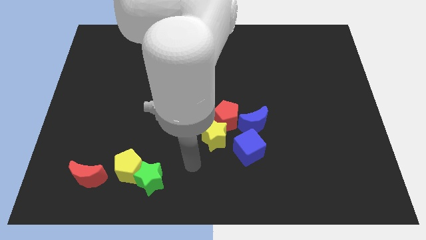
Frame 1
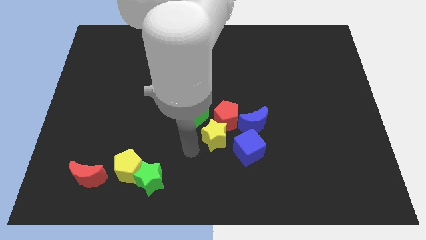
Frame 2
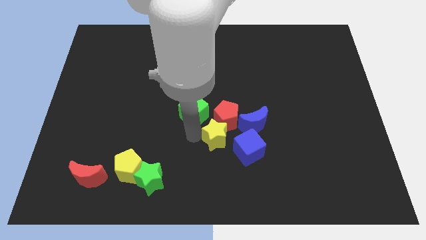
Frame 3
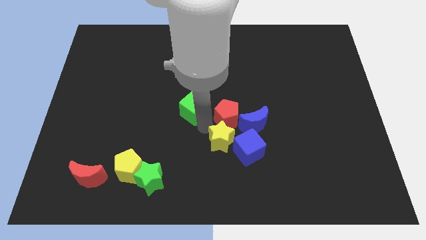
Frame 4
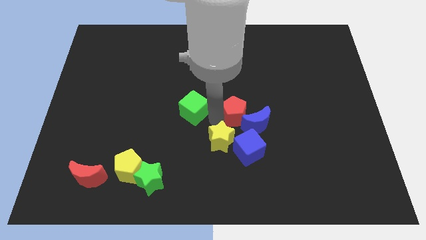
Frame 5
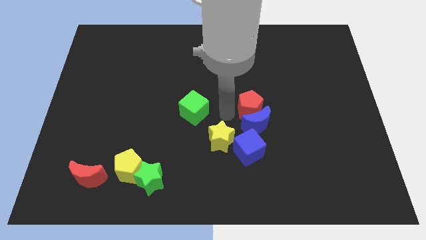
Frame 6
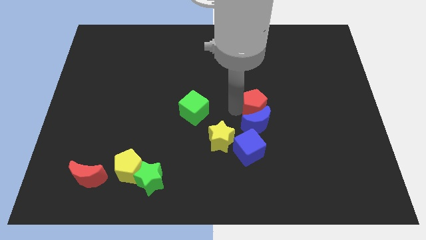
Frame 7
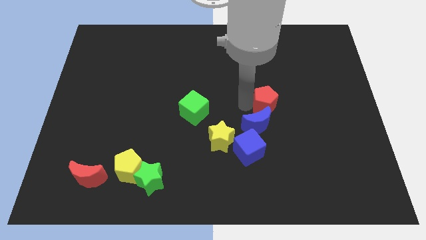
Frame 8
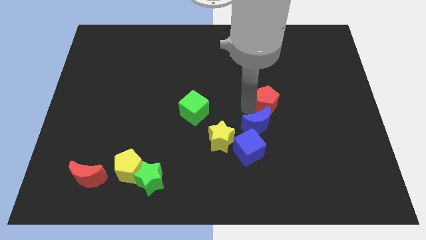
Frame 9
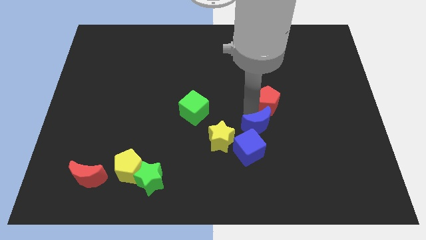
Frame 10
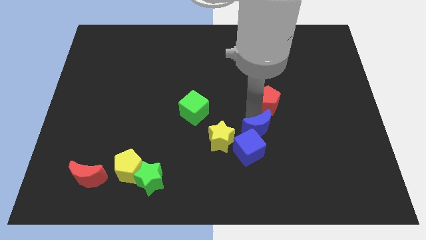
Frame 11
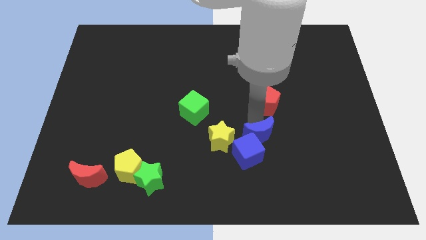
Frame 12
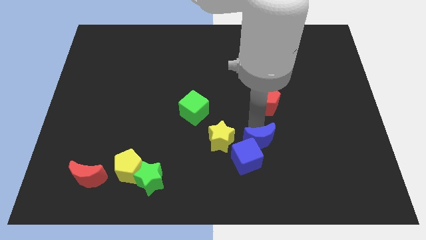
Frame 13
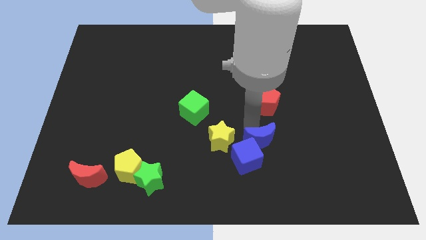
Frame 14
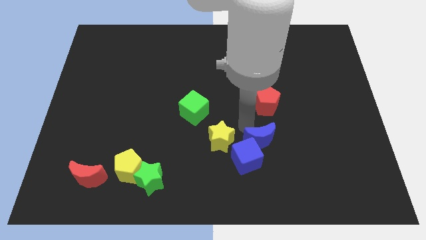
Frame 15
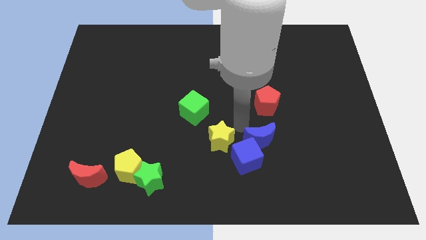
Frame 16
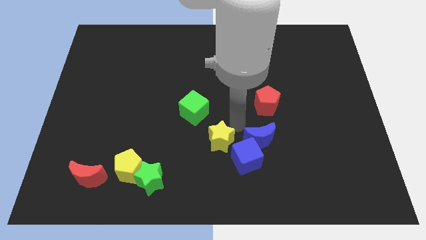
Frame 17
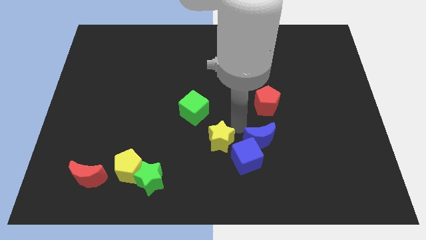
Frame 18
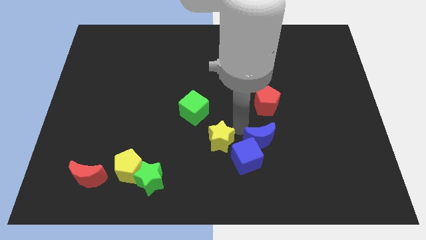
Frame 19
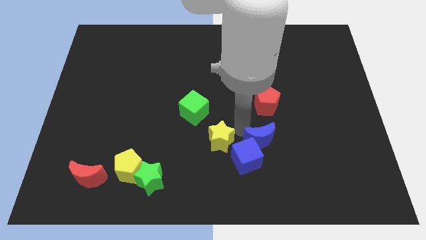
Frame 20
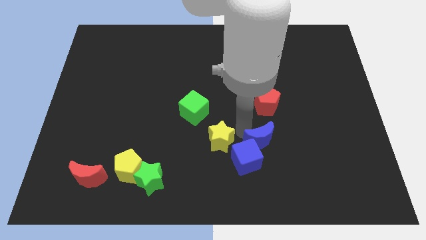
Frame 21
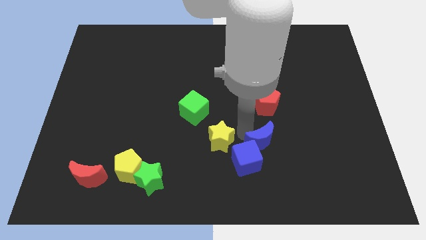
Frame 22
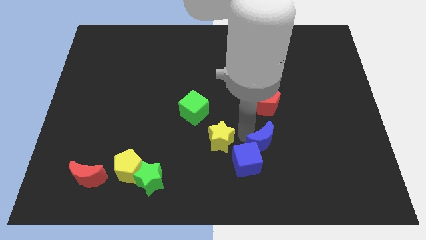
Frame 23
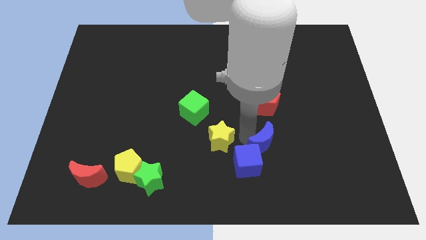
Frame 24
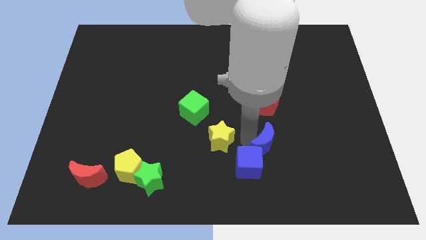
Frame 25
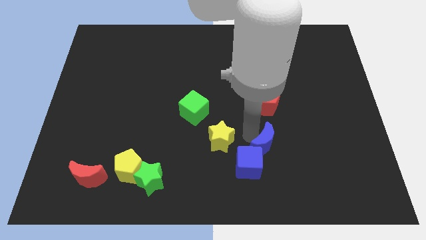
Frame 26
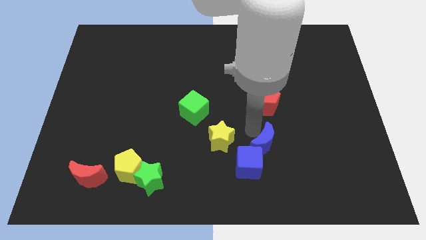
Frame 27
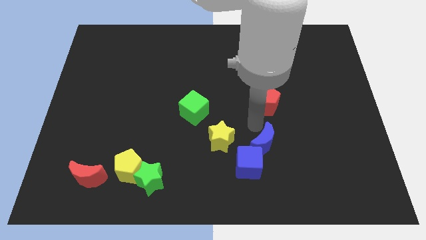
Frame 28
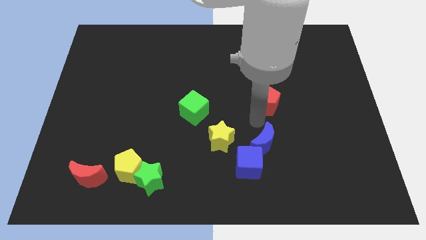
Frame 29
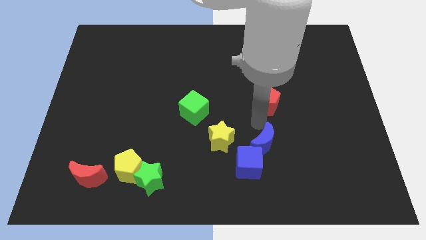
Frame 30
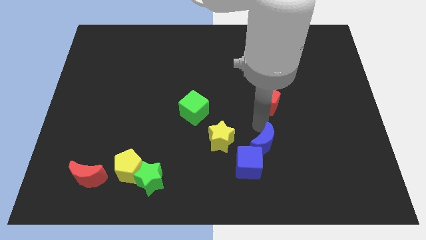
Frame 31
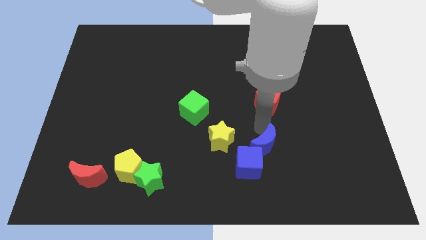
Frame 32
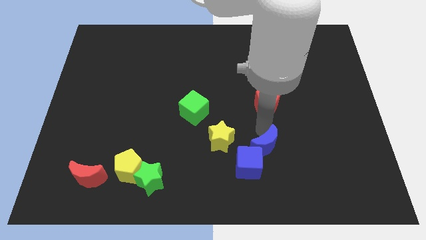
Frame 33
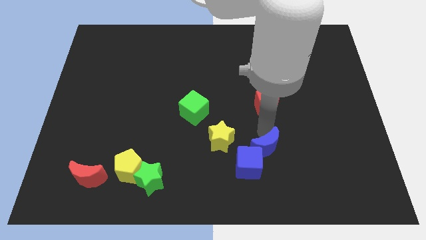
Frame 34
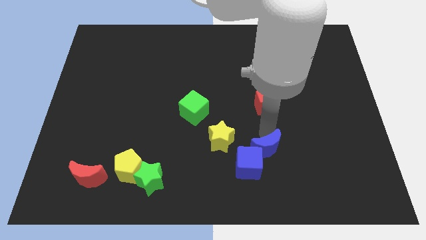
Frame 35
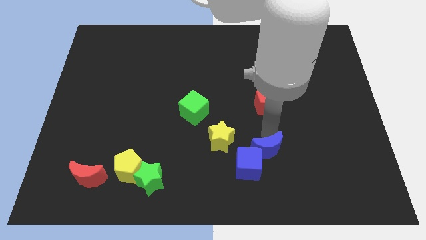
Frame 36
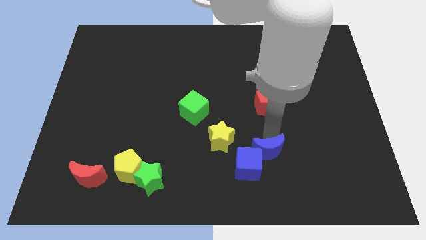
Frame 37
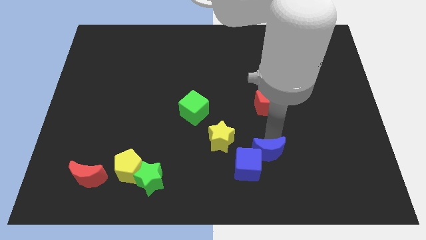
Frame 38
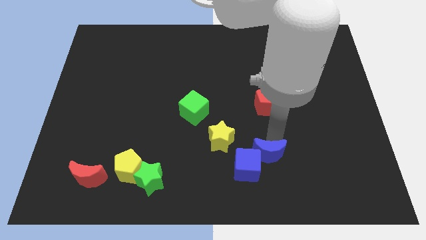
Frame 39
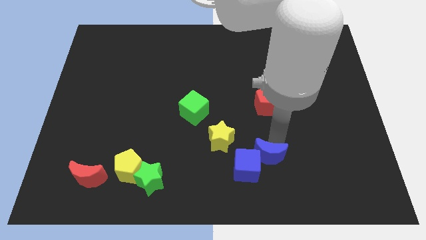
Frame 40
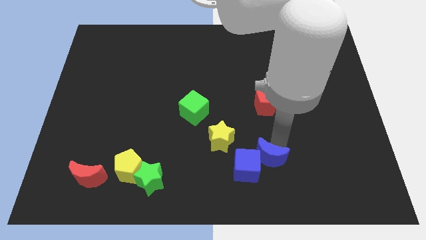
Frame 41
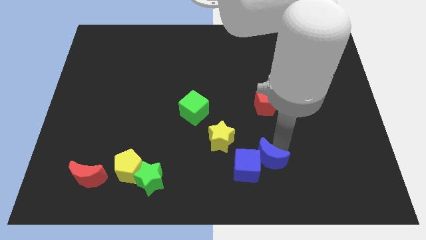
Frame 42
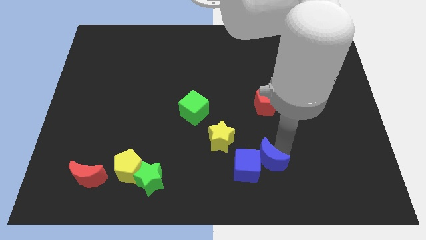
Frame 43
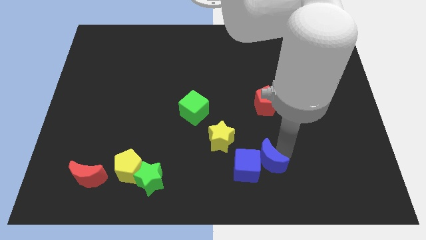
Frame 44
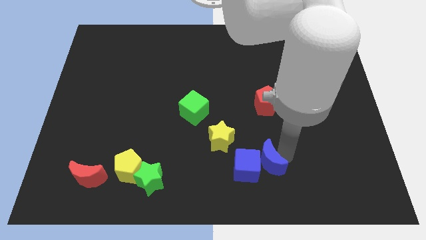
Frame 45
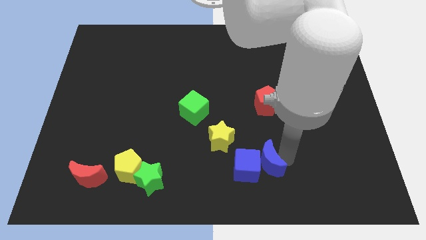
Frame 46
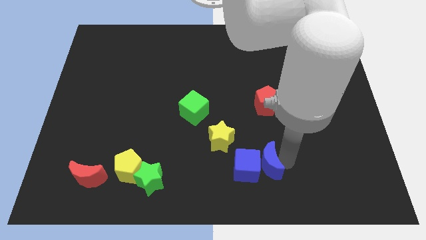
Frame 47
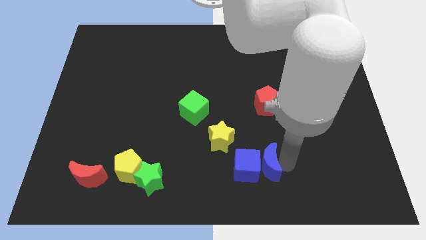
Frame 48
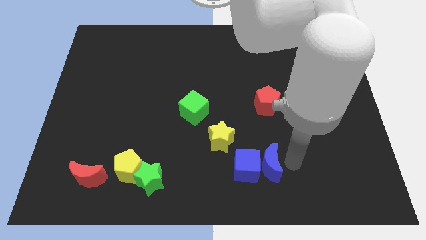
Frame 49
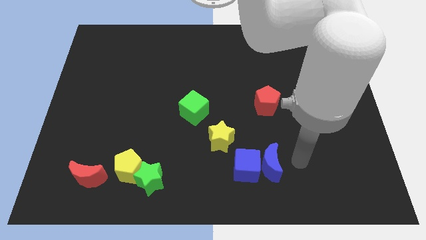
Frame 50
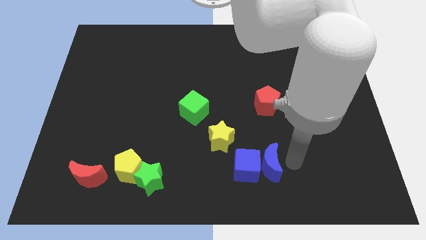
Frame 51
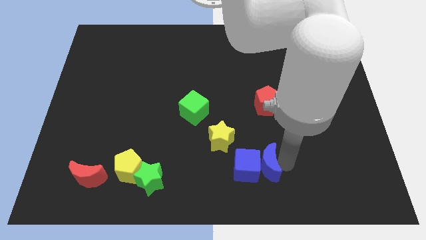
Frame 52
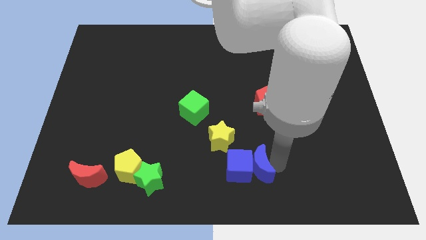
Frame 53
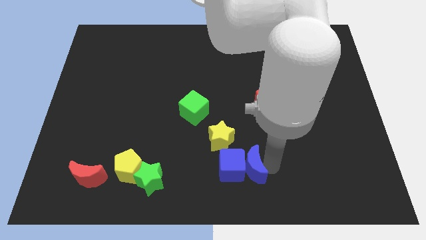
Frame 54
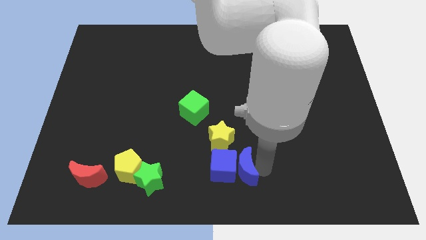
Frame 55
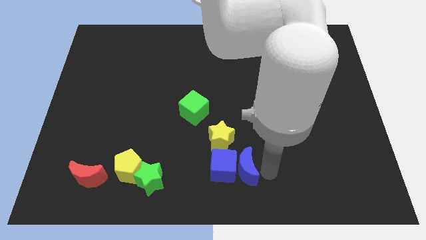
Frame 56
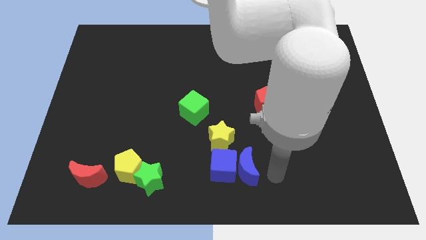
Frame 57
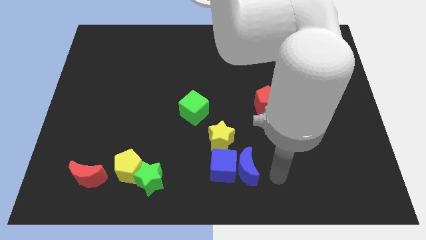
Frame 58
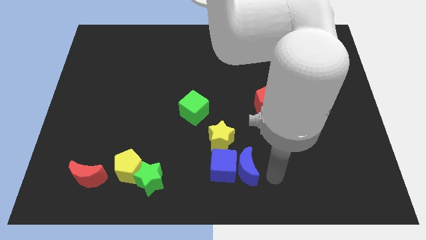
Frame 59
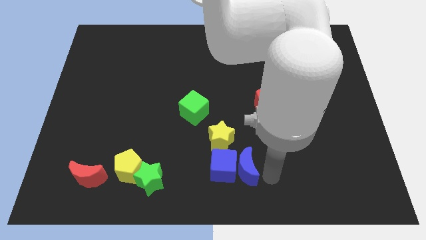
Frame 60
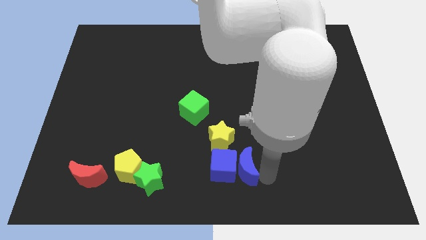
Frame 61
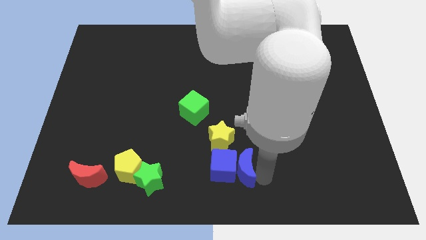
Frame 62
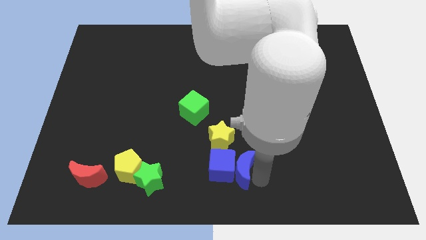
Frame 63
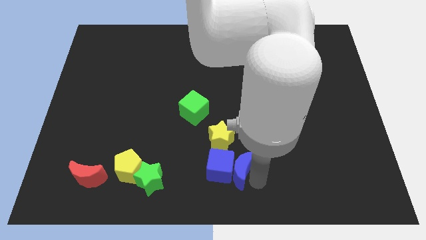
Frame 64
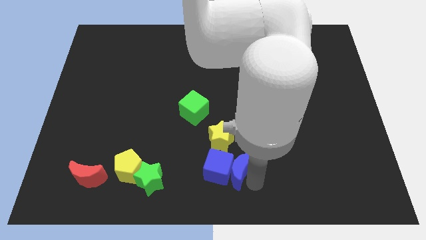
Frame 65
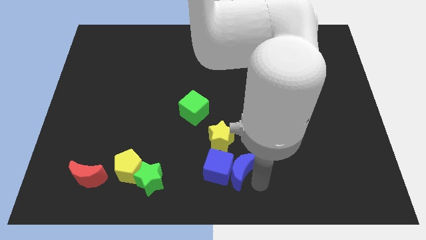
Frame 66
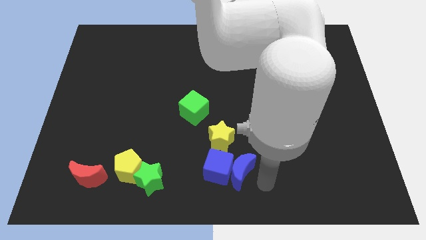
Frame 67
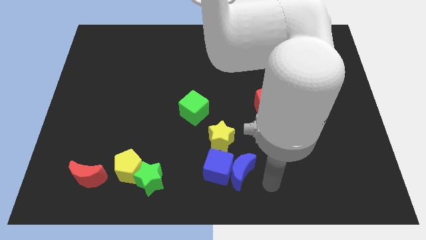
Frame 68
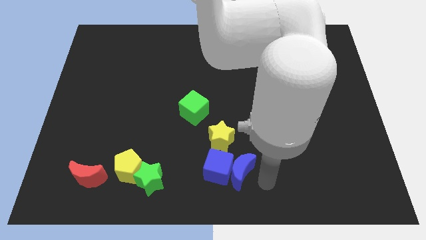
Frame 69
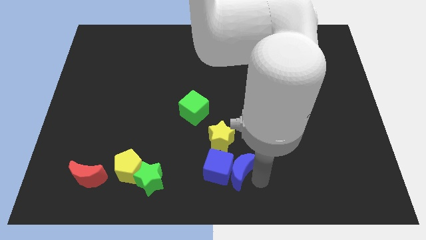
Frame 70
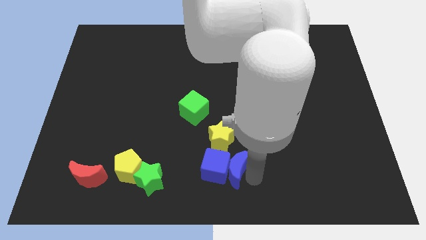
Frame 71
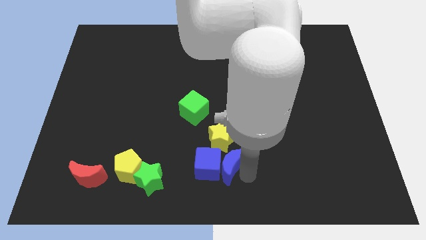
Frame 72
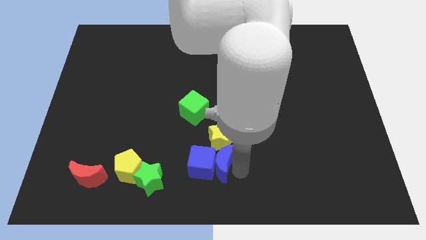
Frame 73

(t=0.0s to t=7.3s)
put the blue moon to the bottom left of the yellow star
